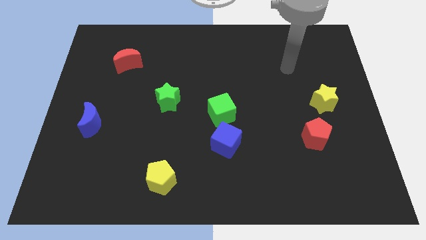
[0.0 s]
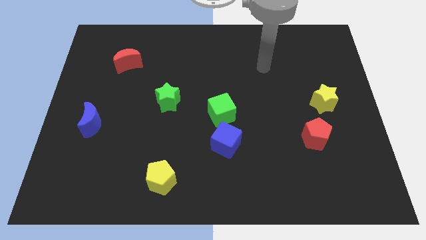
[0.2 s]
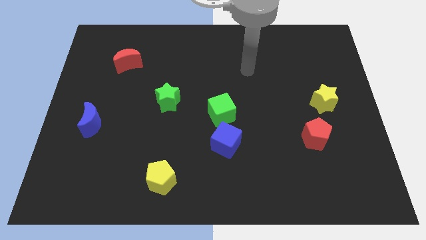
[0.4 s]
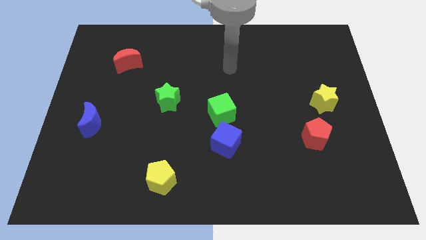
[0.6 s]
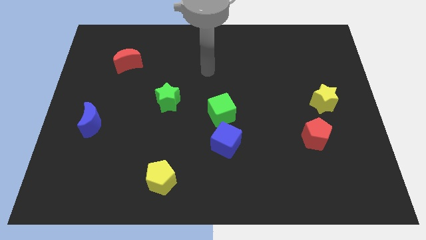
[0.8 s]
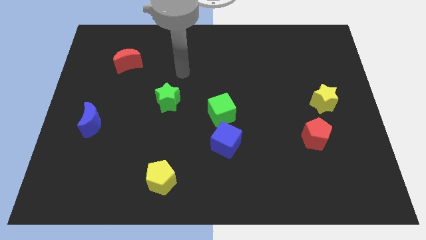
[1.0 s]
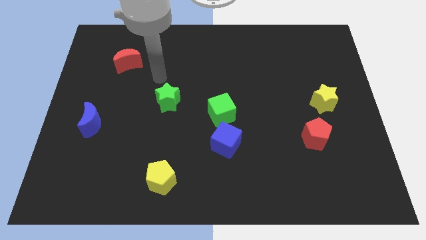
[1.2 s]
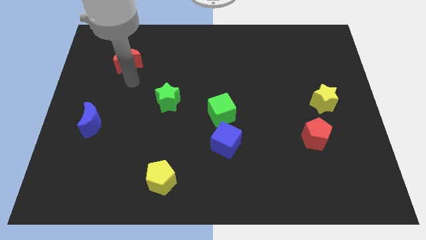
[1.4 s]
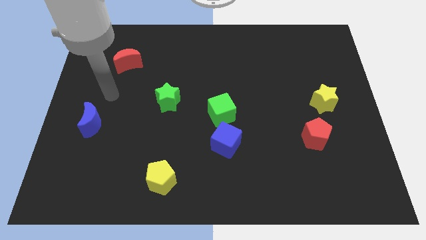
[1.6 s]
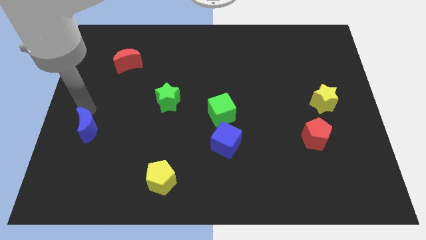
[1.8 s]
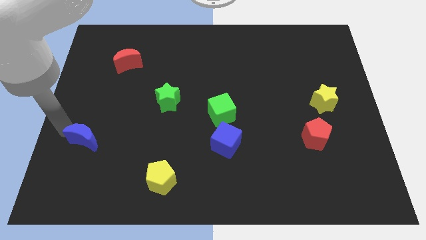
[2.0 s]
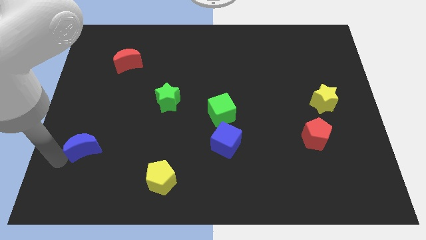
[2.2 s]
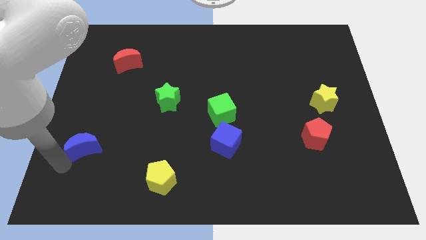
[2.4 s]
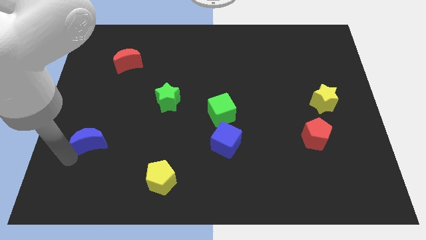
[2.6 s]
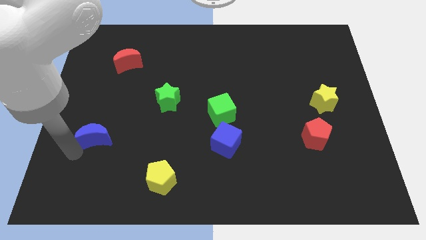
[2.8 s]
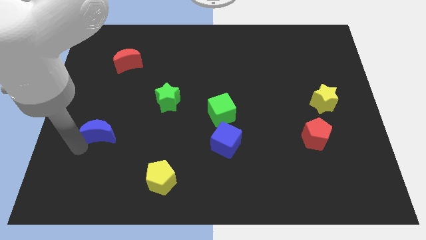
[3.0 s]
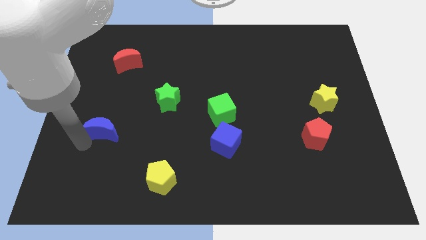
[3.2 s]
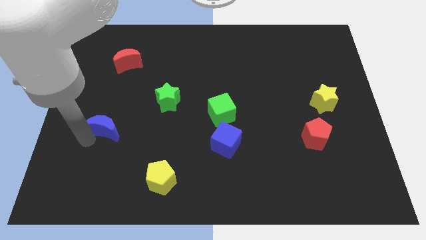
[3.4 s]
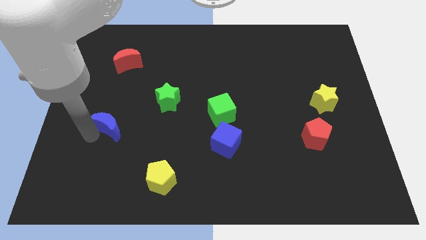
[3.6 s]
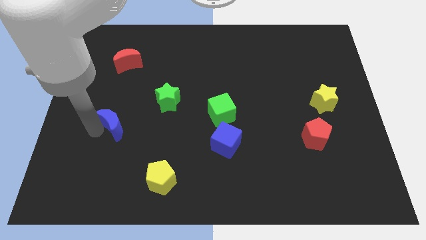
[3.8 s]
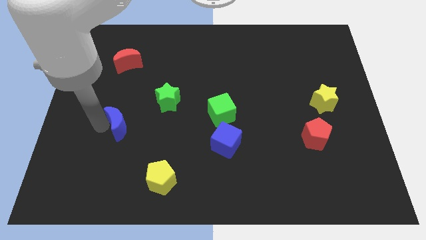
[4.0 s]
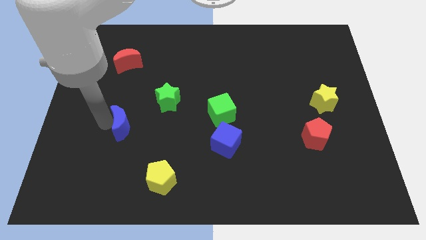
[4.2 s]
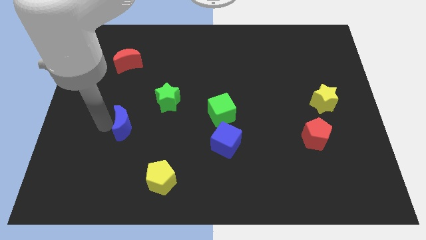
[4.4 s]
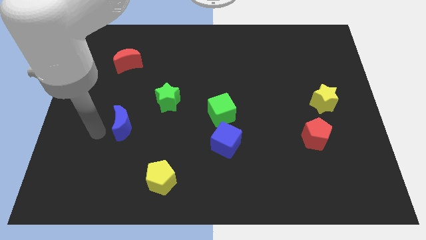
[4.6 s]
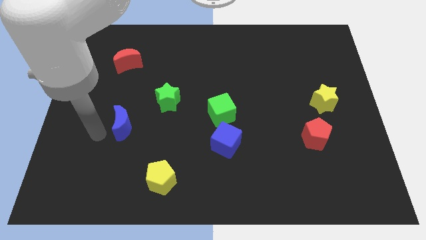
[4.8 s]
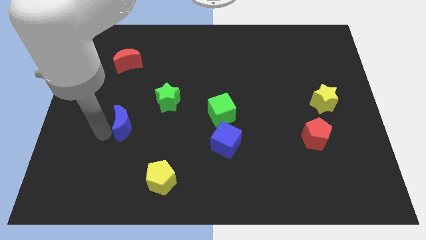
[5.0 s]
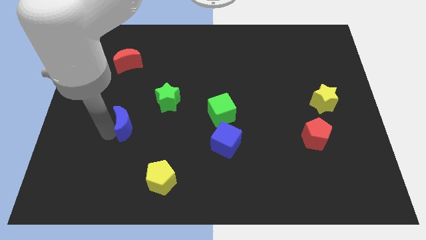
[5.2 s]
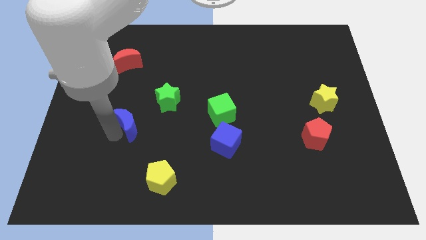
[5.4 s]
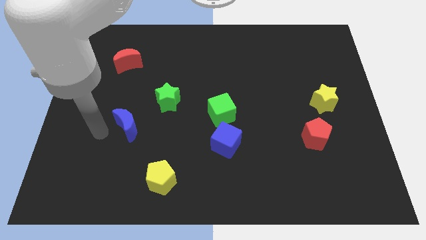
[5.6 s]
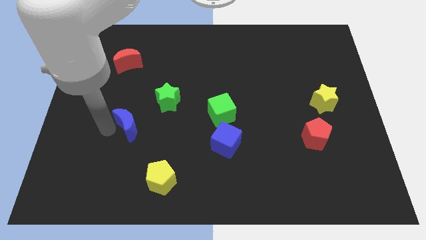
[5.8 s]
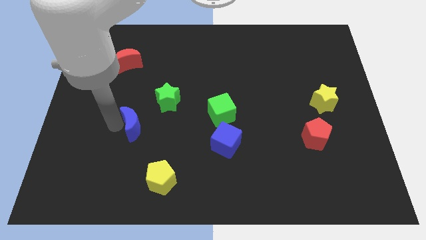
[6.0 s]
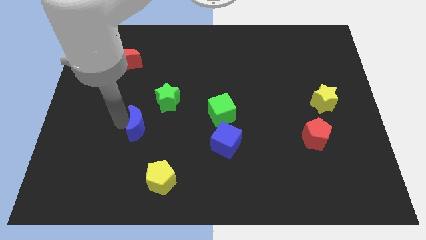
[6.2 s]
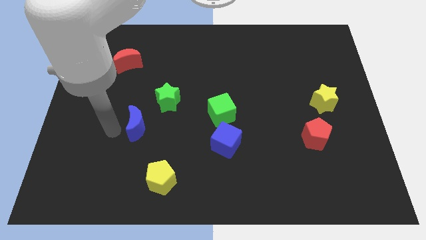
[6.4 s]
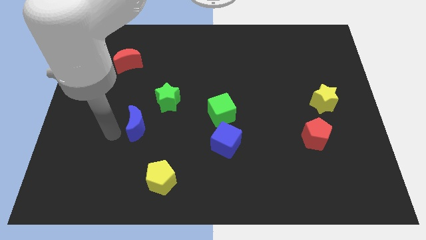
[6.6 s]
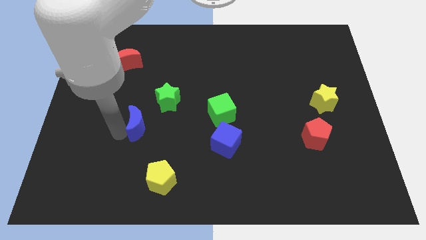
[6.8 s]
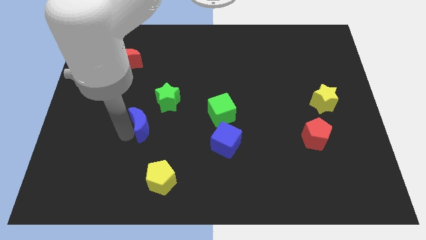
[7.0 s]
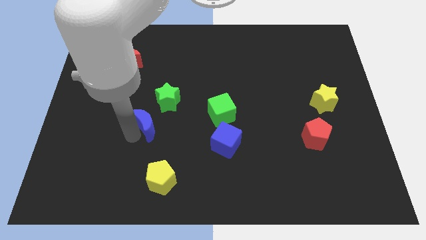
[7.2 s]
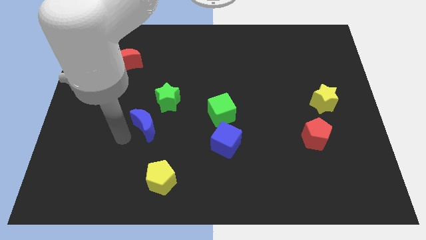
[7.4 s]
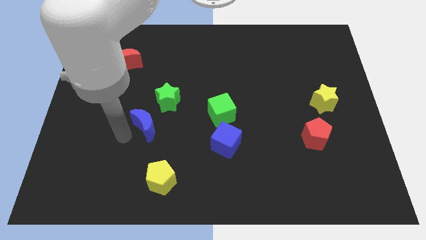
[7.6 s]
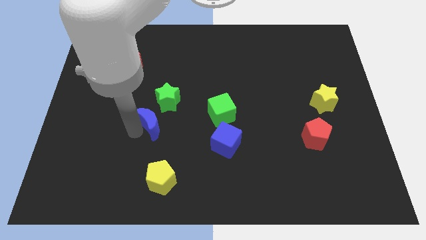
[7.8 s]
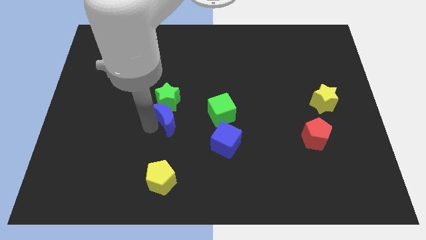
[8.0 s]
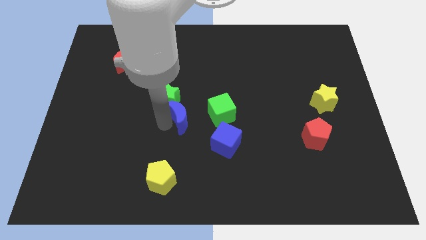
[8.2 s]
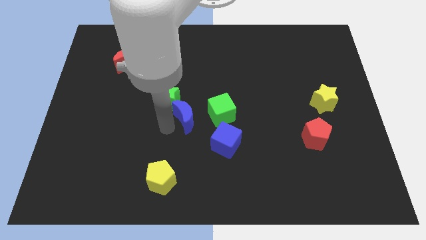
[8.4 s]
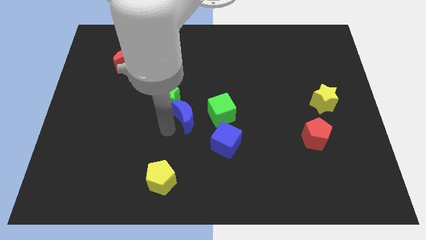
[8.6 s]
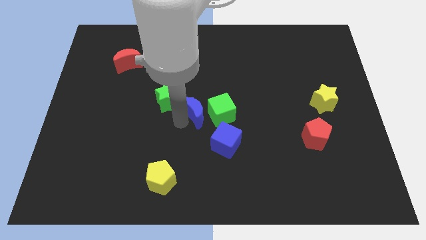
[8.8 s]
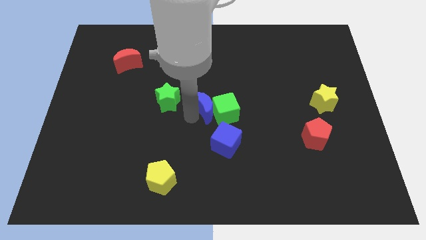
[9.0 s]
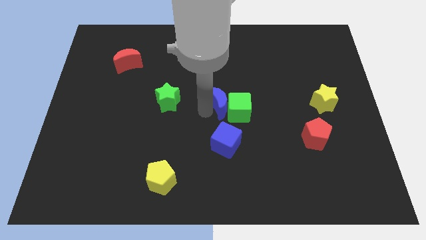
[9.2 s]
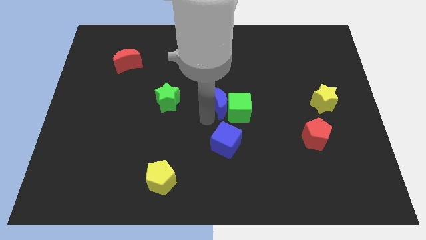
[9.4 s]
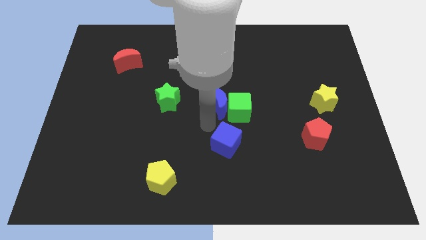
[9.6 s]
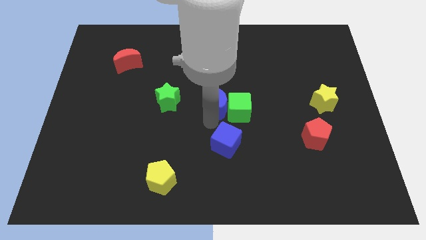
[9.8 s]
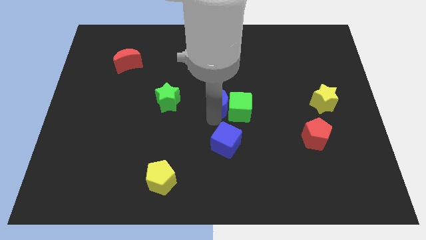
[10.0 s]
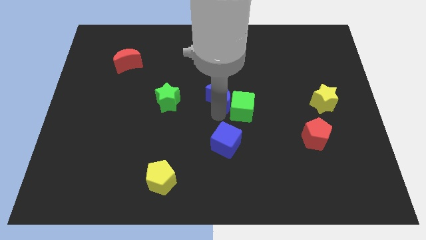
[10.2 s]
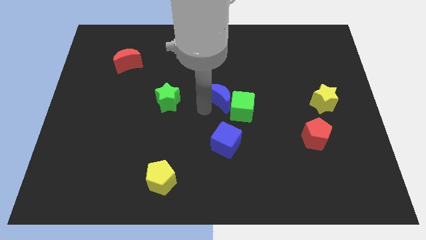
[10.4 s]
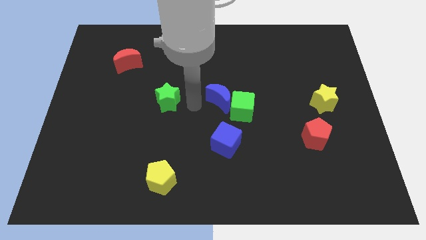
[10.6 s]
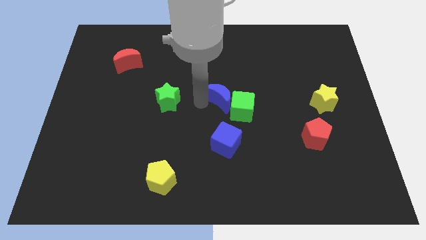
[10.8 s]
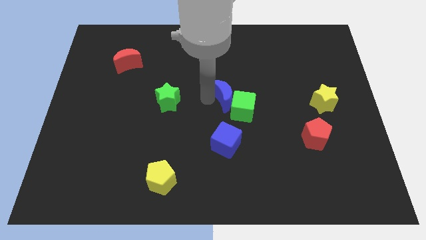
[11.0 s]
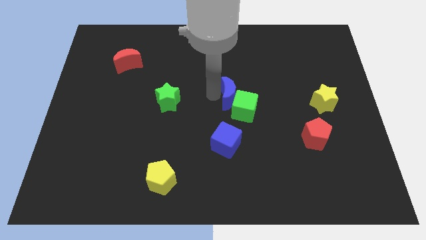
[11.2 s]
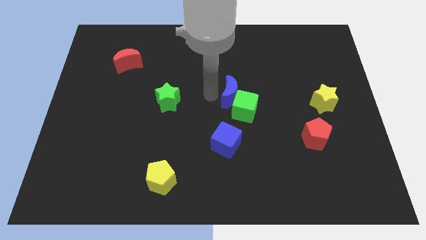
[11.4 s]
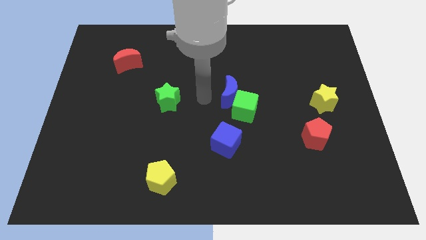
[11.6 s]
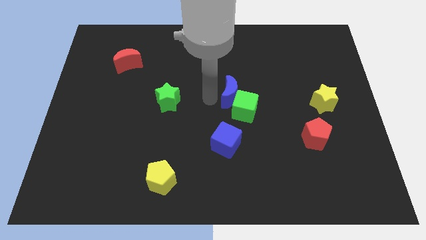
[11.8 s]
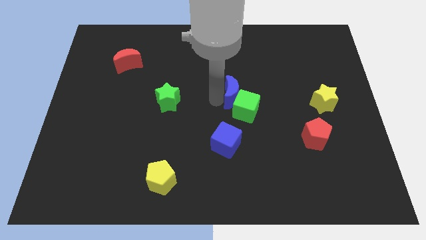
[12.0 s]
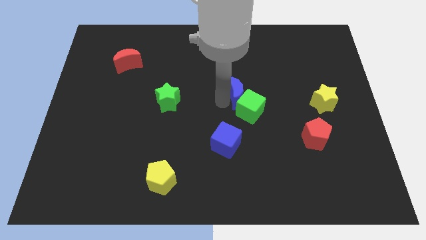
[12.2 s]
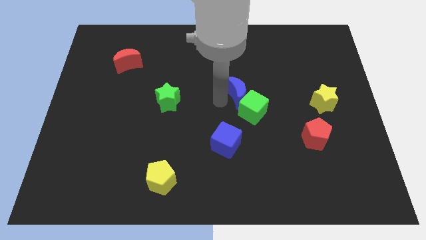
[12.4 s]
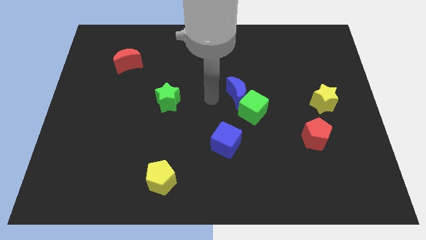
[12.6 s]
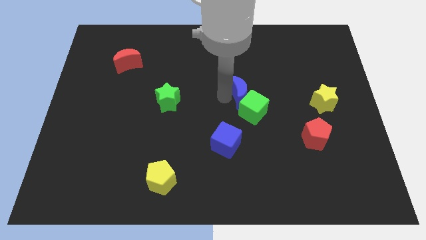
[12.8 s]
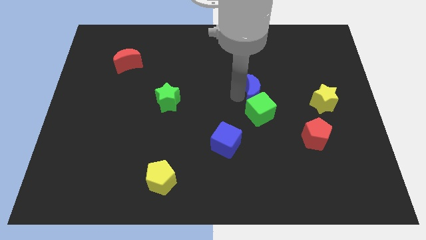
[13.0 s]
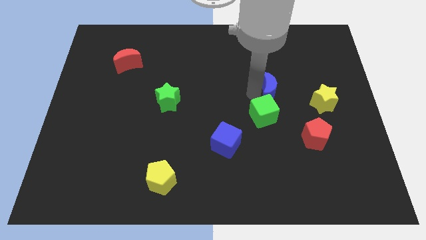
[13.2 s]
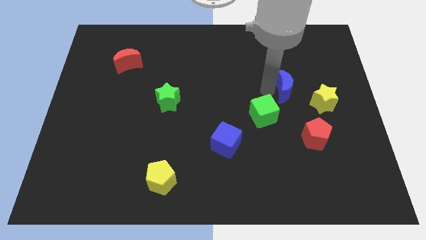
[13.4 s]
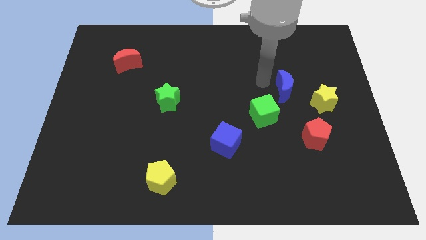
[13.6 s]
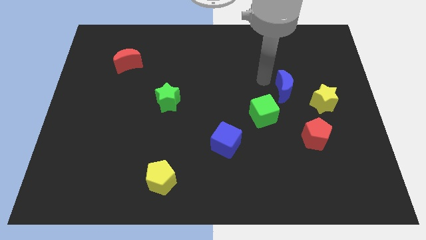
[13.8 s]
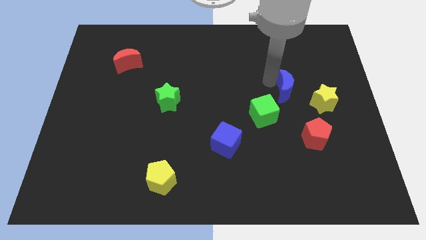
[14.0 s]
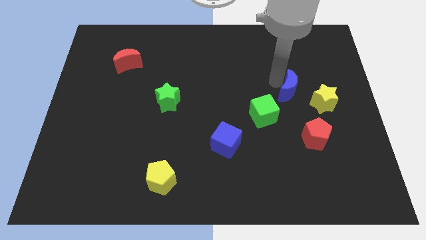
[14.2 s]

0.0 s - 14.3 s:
push the blue moon to the top of the red pentagon

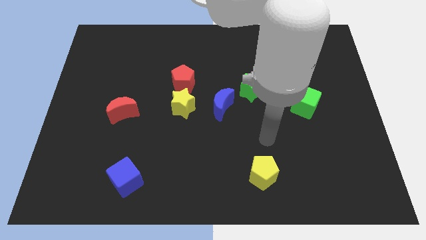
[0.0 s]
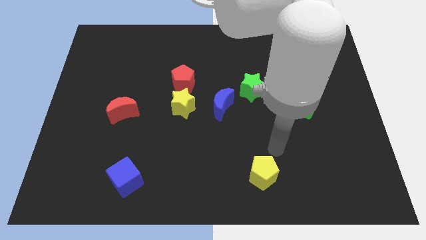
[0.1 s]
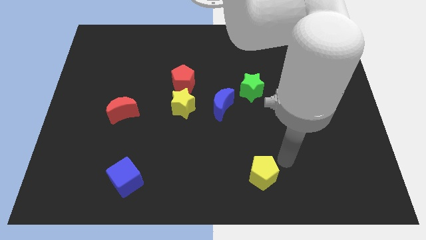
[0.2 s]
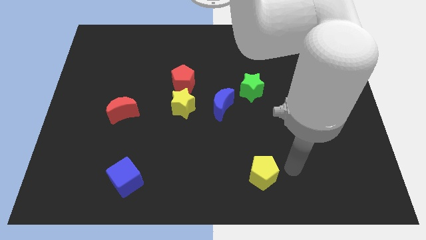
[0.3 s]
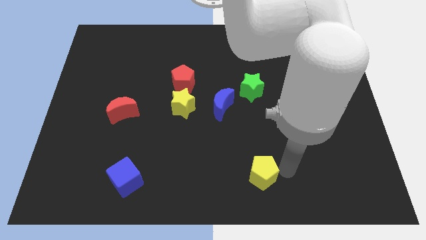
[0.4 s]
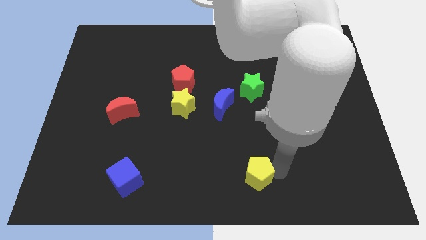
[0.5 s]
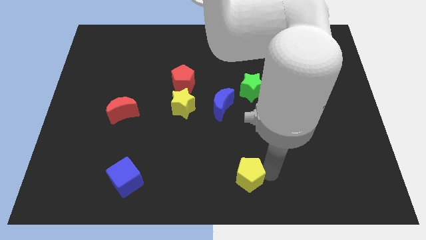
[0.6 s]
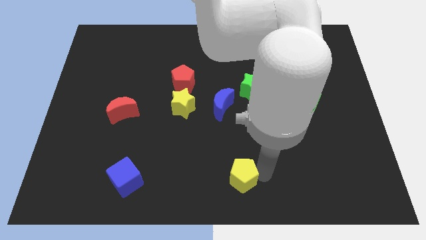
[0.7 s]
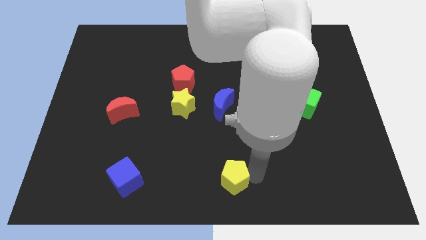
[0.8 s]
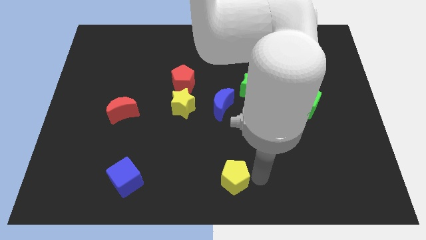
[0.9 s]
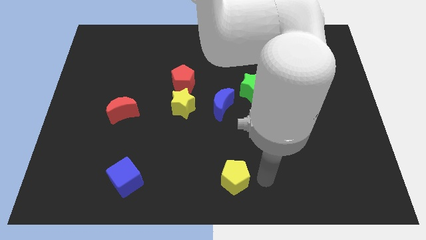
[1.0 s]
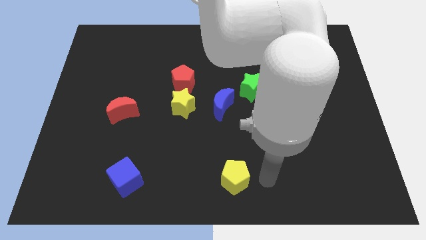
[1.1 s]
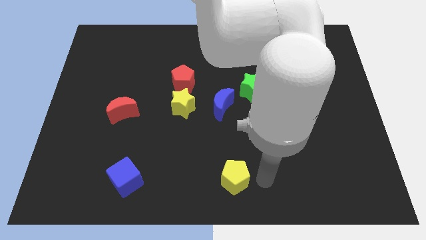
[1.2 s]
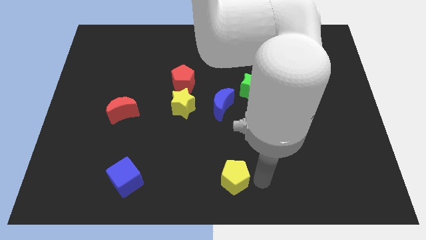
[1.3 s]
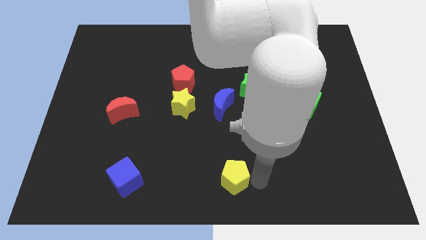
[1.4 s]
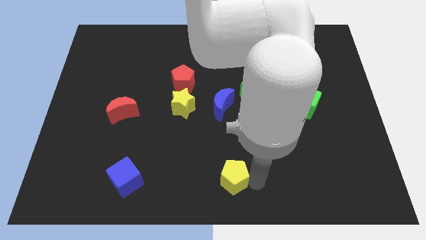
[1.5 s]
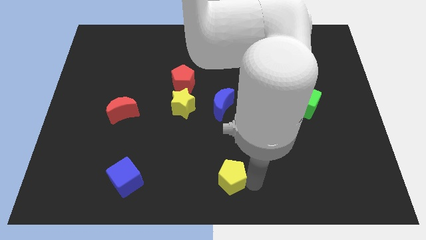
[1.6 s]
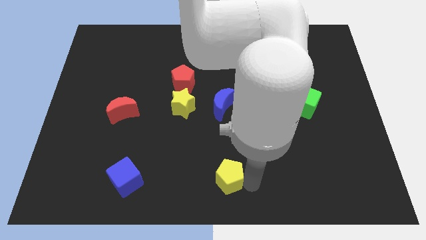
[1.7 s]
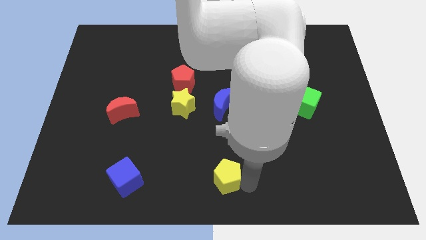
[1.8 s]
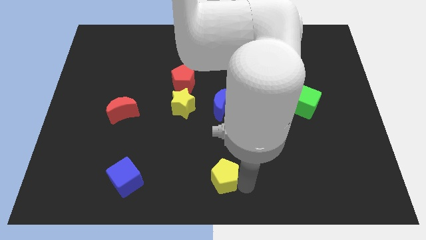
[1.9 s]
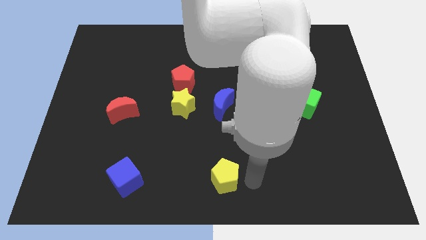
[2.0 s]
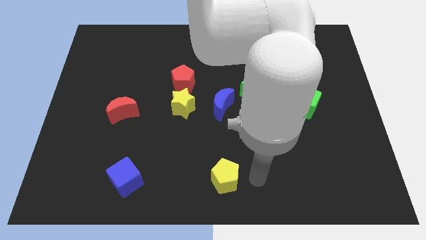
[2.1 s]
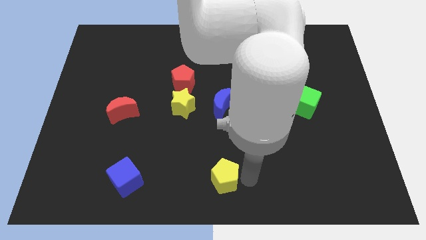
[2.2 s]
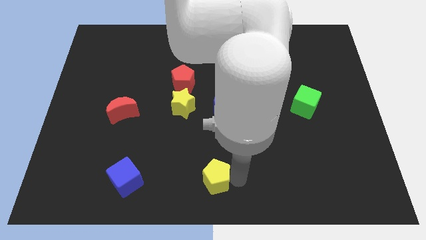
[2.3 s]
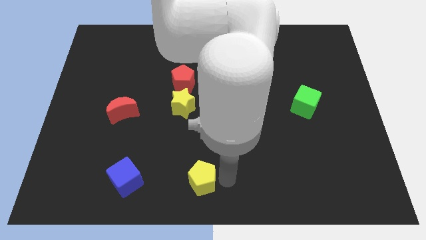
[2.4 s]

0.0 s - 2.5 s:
slide the yellow pentagon right of the blue cube
